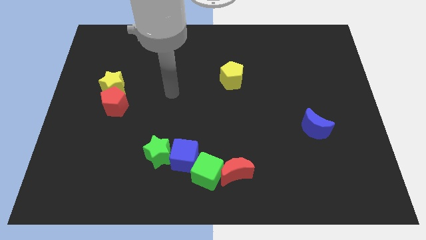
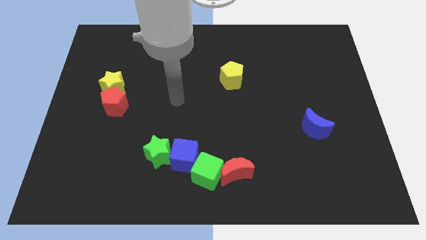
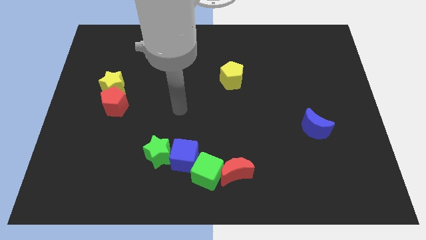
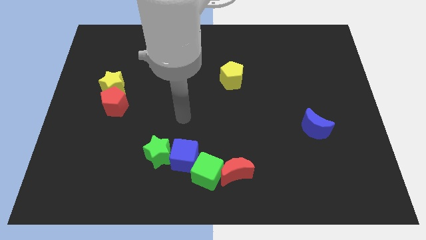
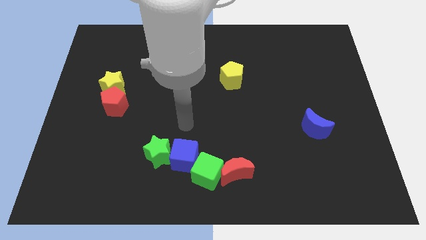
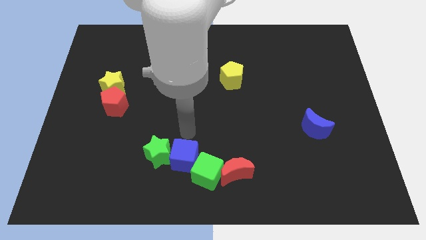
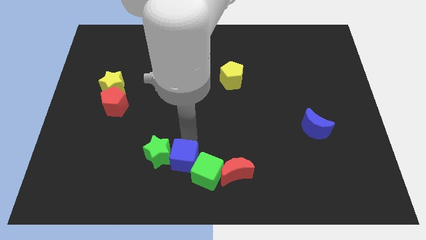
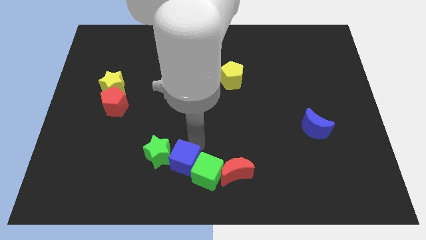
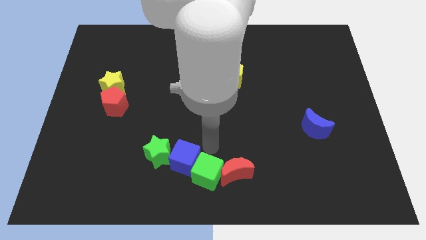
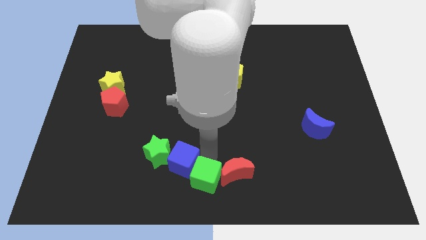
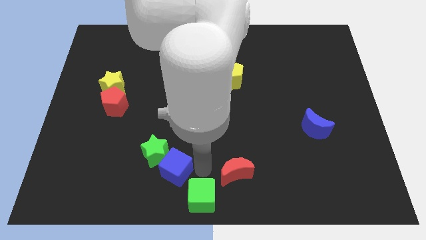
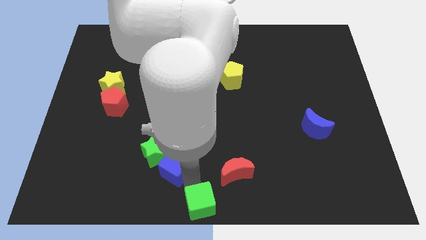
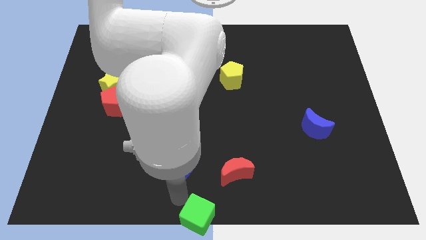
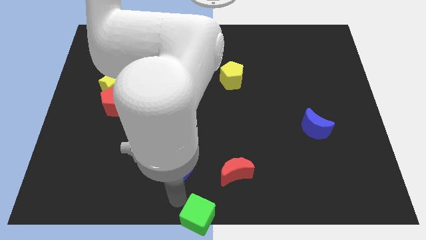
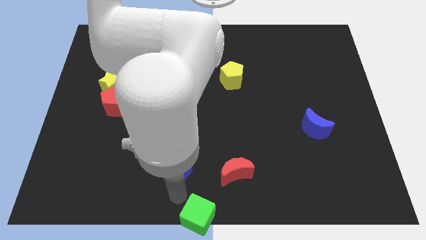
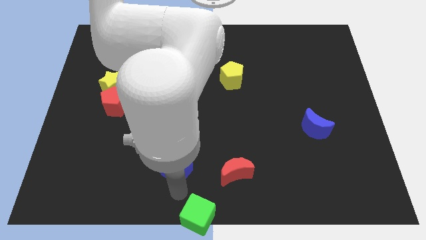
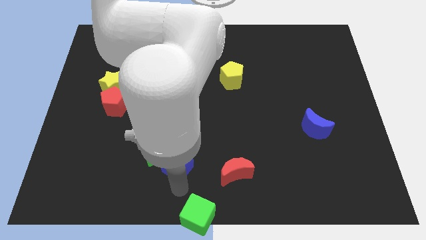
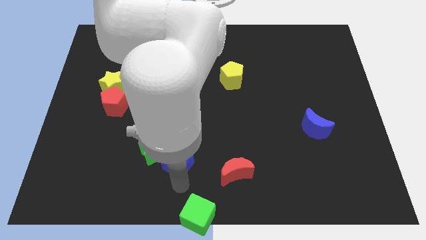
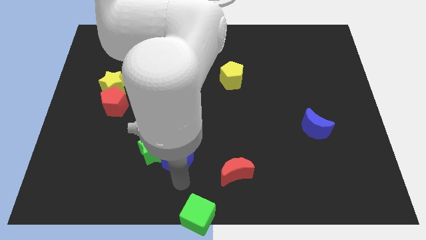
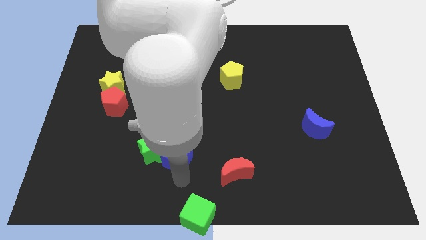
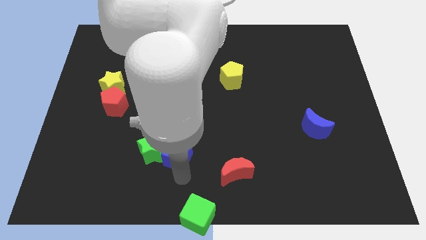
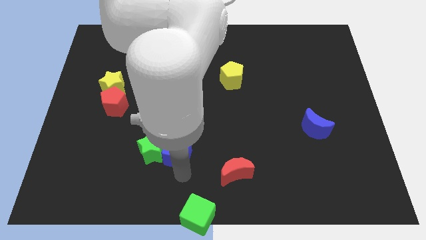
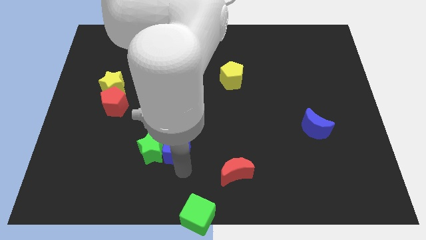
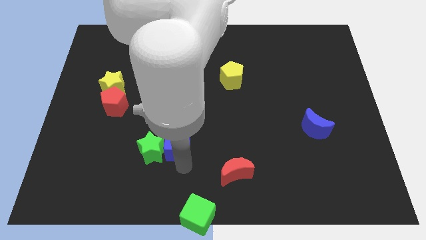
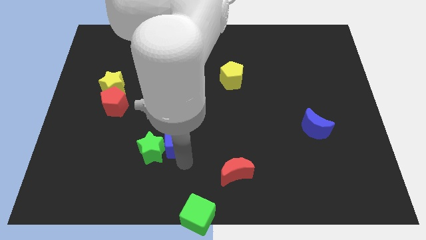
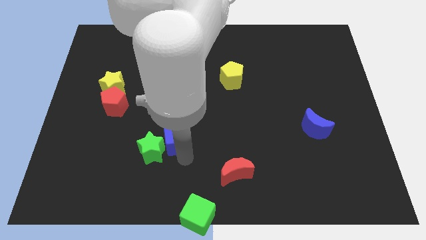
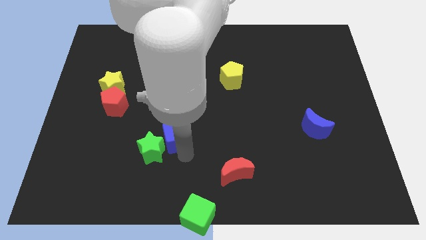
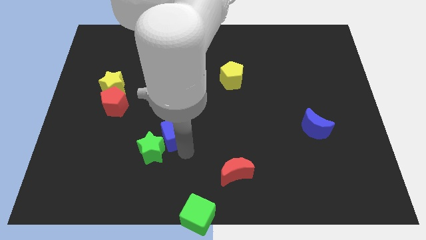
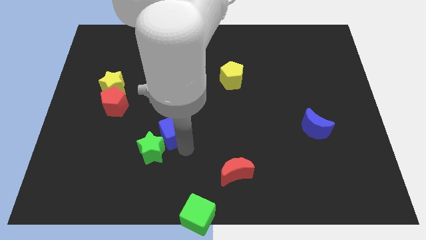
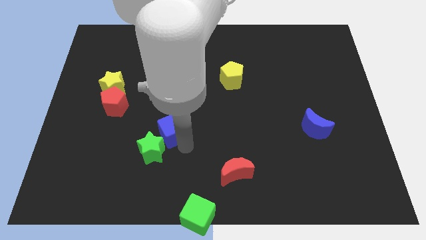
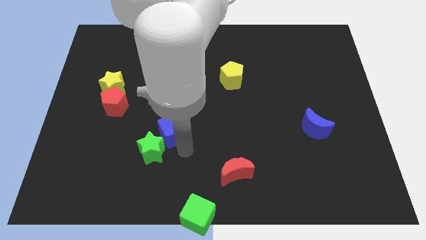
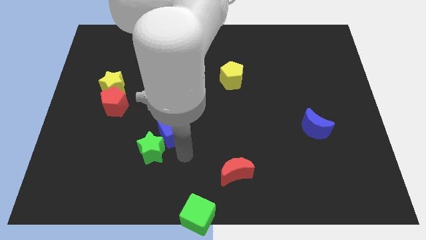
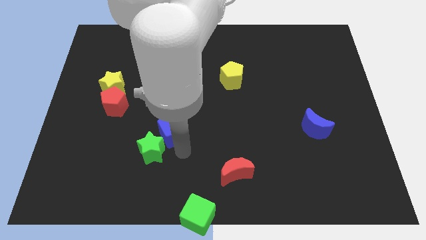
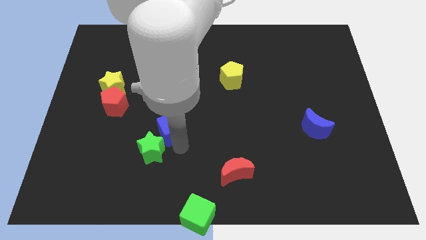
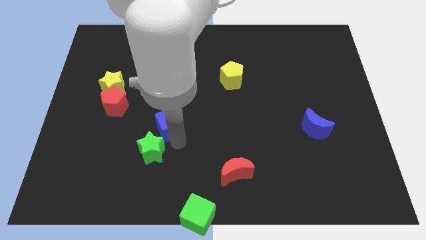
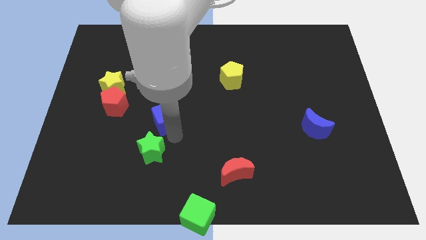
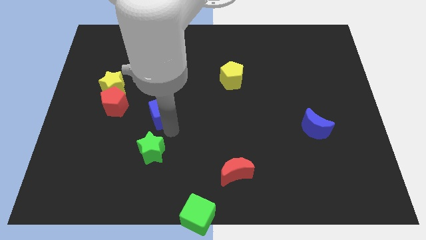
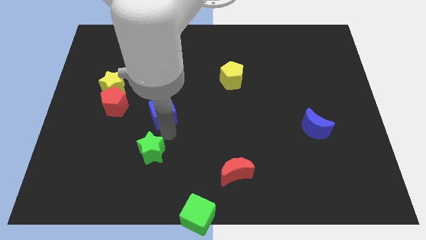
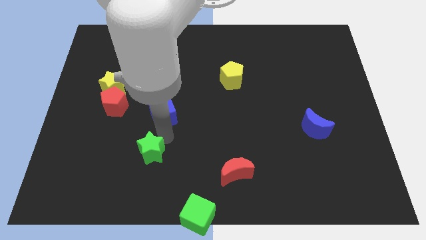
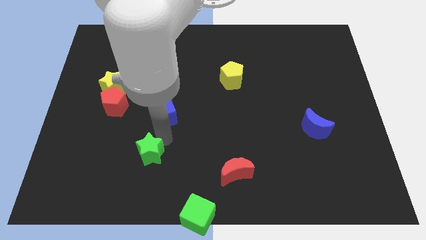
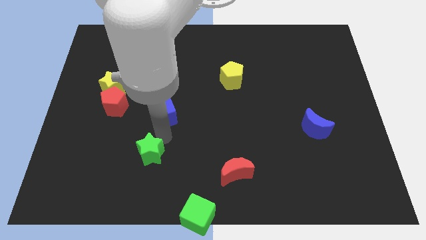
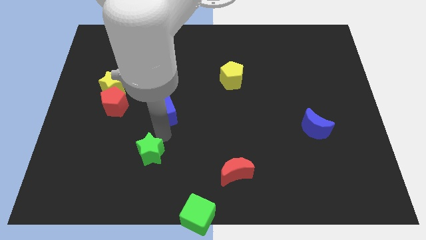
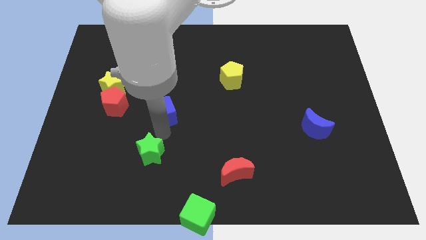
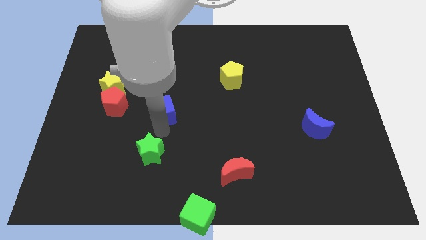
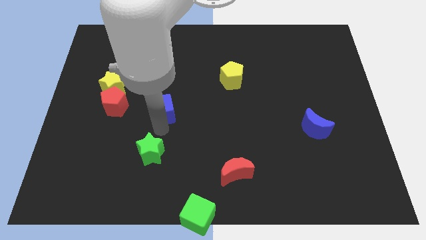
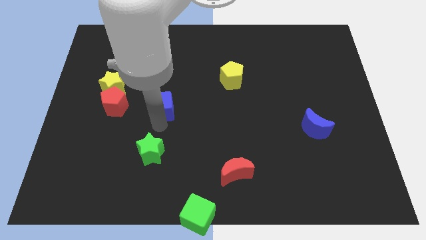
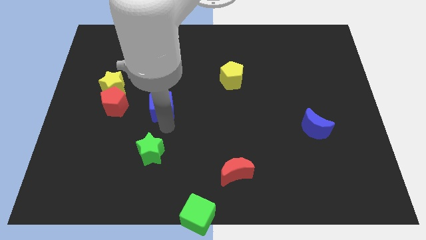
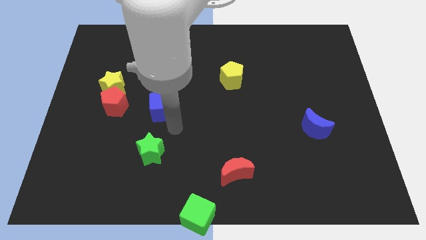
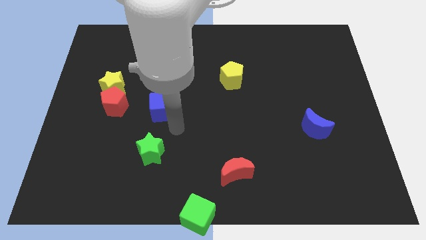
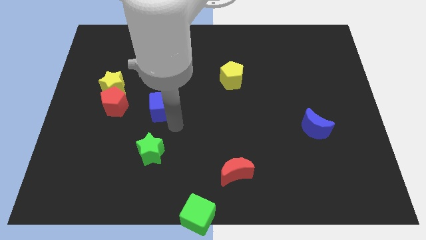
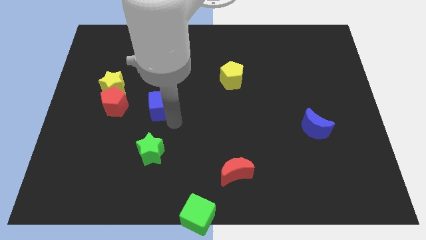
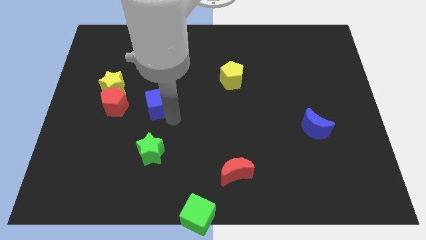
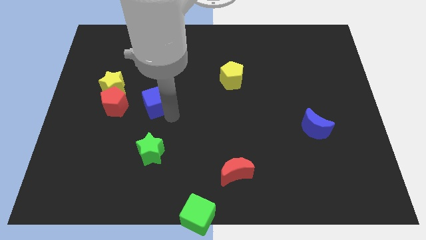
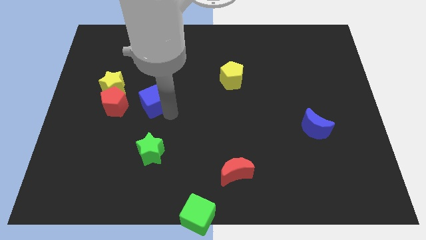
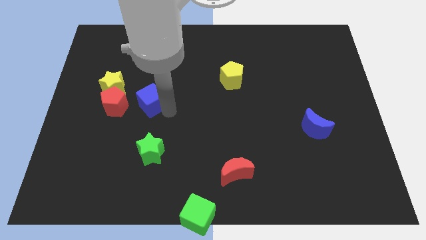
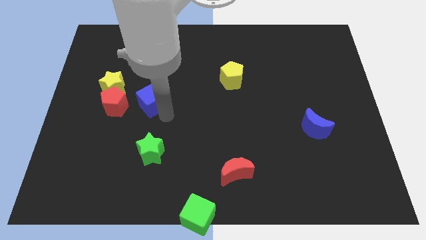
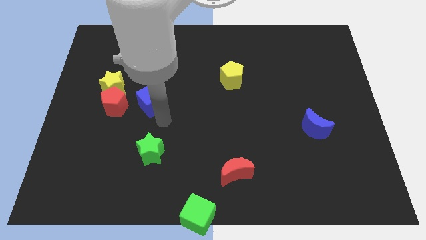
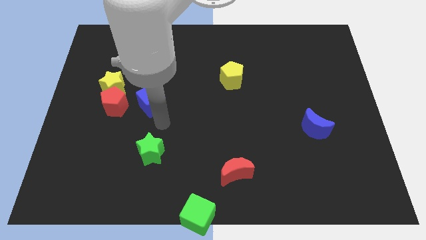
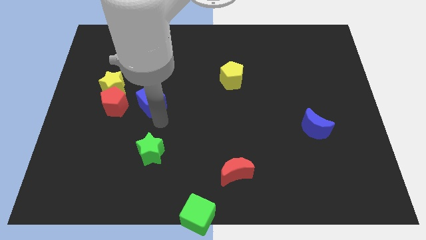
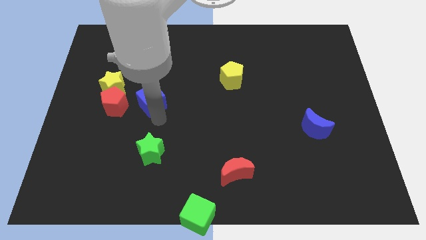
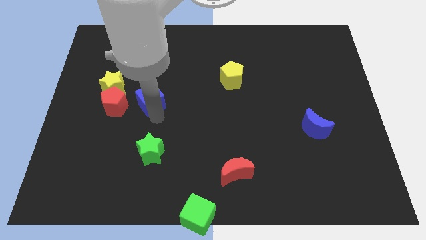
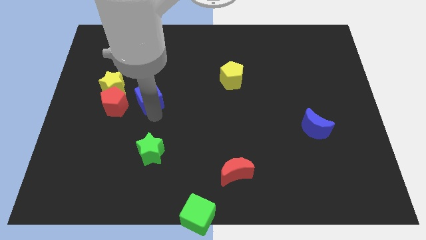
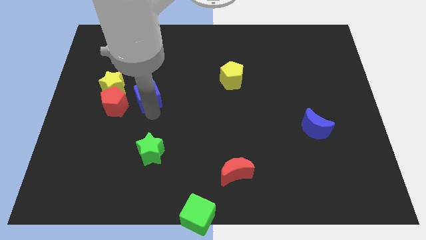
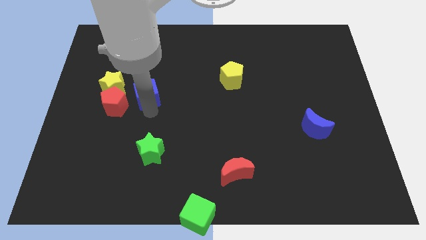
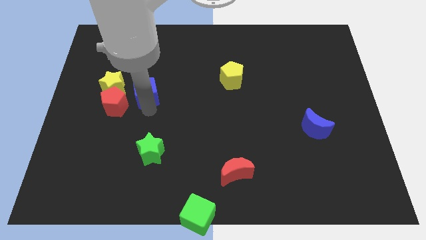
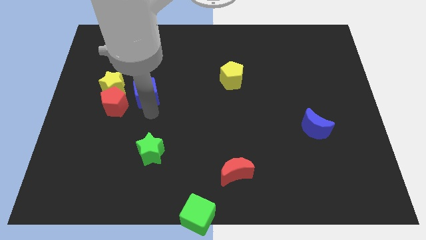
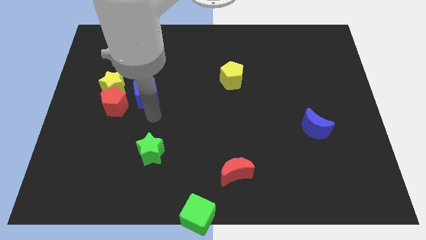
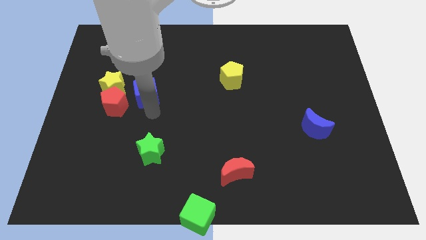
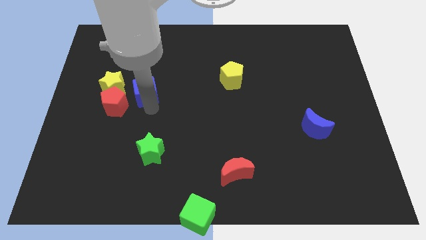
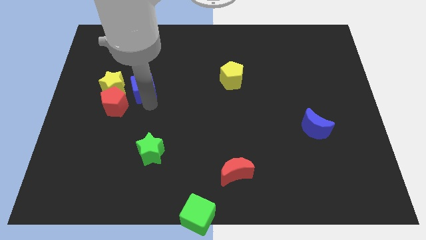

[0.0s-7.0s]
push the blue cube up and to the left diagonally

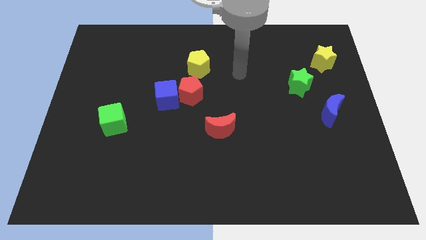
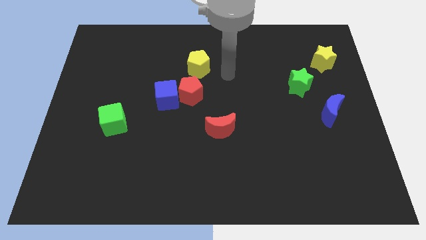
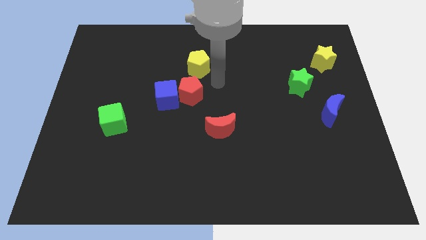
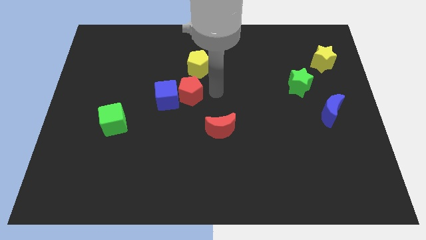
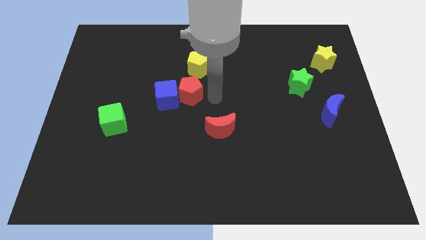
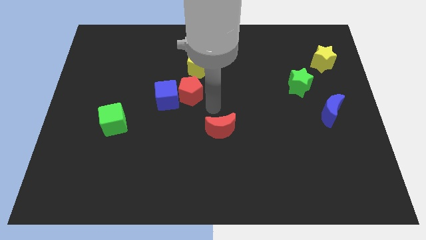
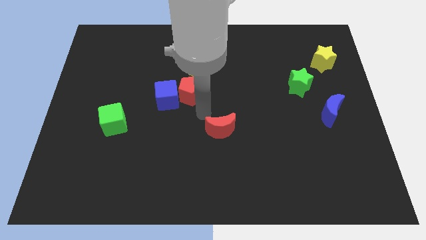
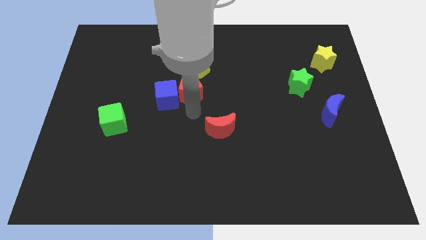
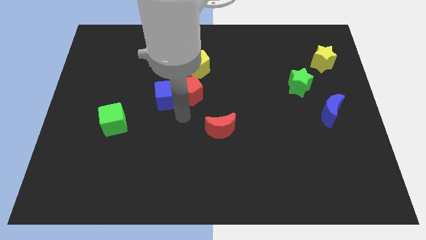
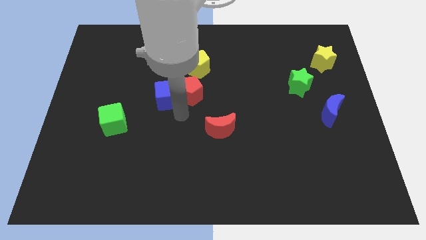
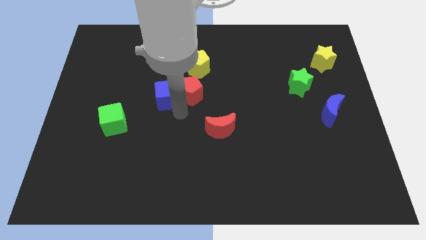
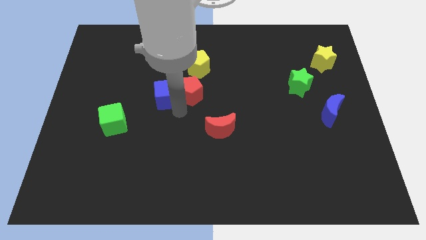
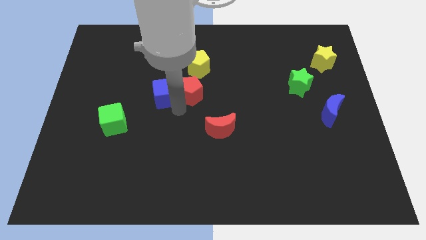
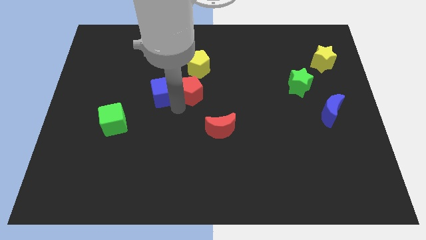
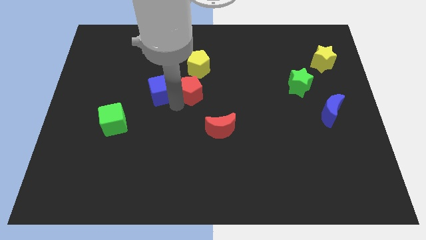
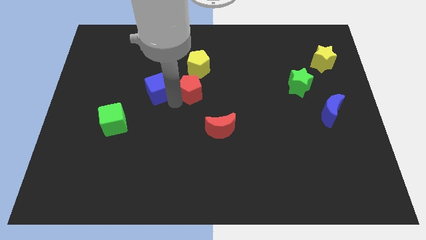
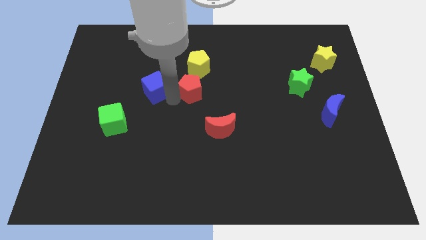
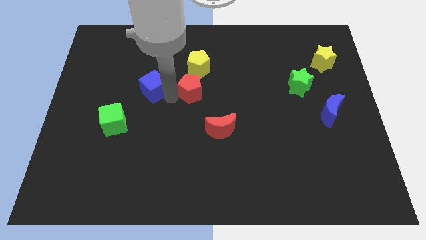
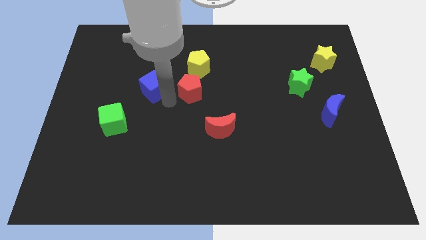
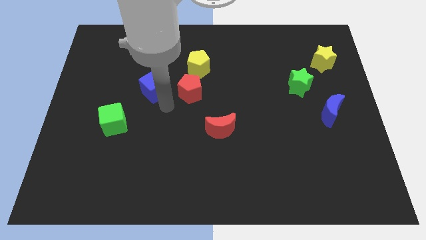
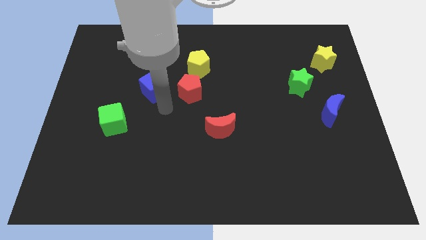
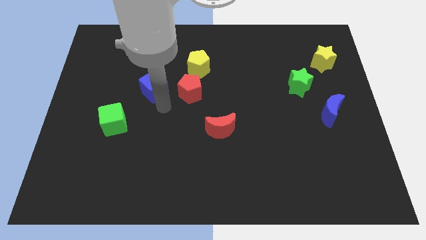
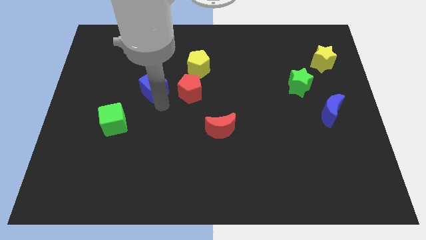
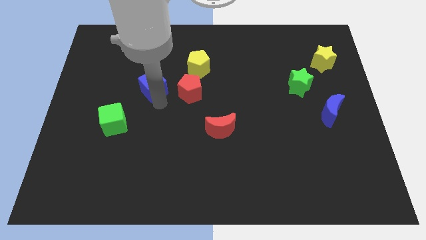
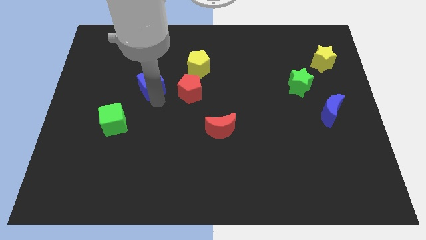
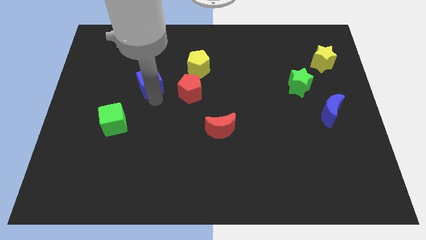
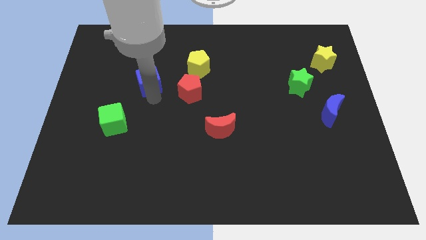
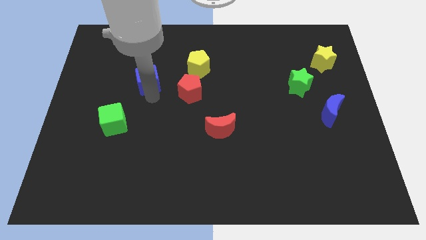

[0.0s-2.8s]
push the blue cube a little bit up and left diagonally
